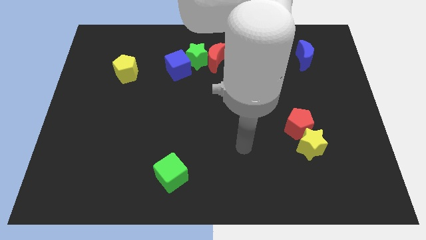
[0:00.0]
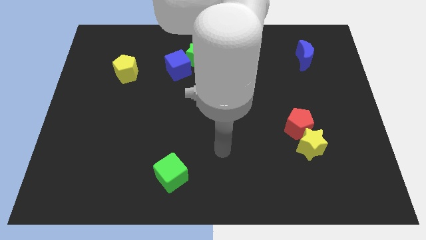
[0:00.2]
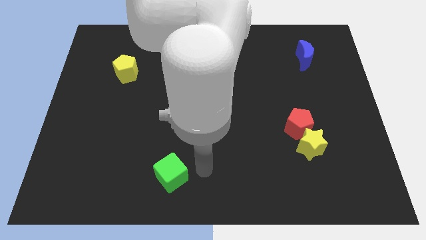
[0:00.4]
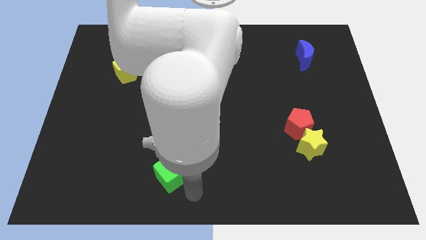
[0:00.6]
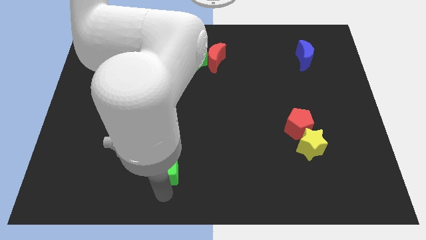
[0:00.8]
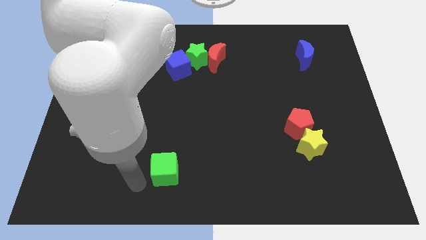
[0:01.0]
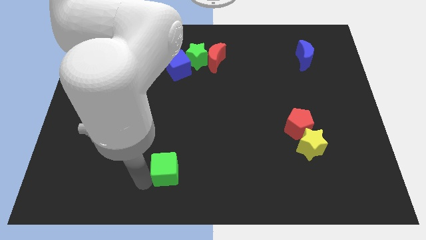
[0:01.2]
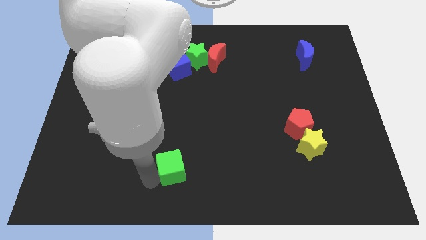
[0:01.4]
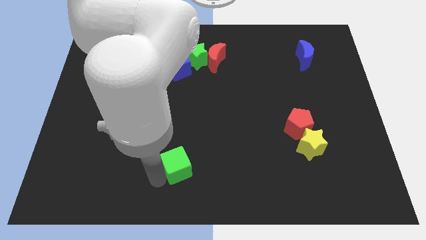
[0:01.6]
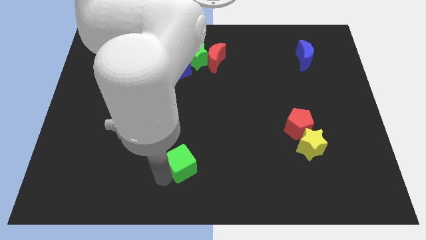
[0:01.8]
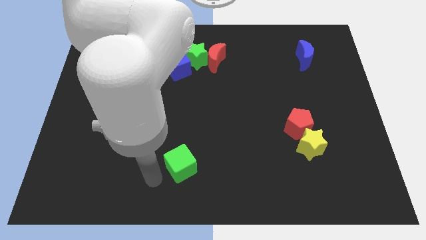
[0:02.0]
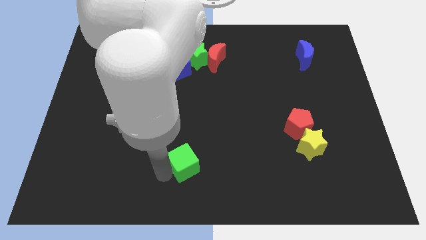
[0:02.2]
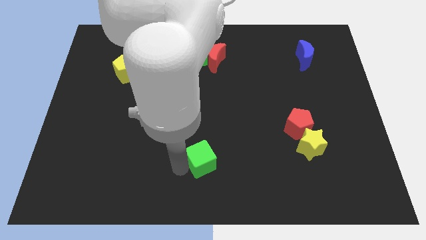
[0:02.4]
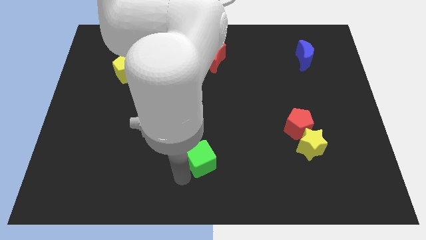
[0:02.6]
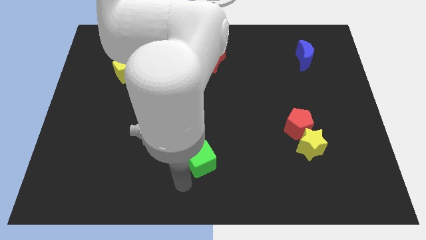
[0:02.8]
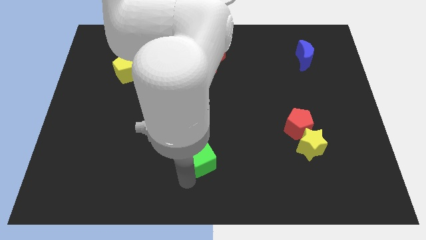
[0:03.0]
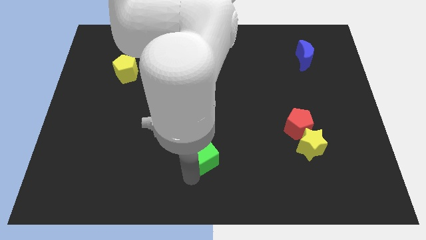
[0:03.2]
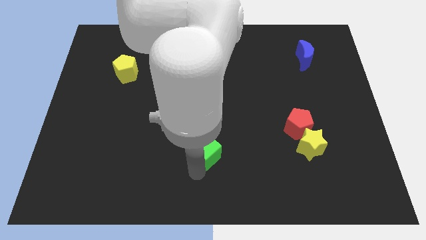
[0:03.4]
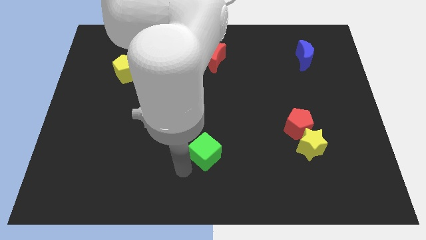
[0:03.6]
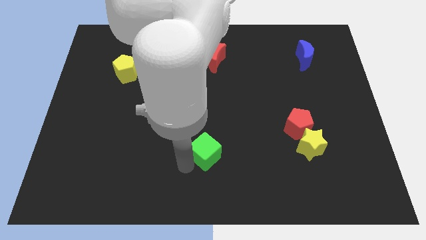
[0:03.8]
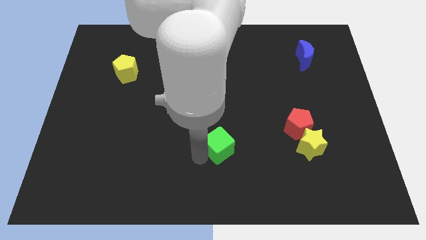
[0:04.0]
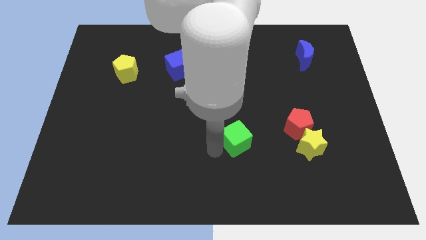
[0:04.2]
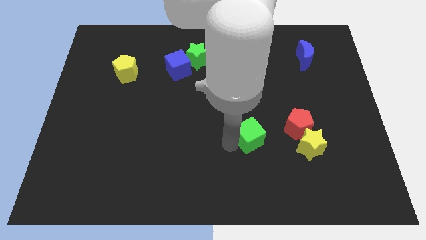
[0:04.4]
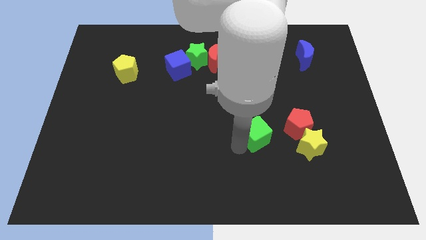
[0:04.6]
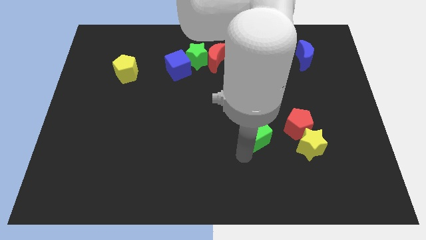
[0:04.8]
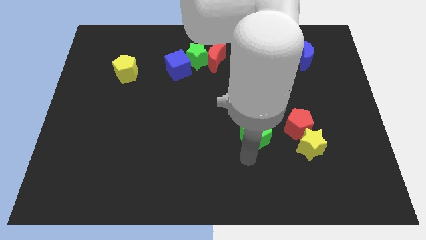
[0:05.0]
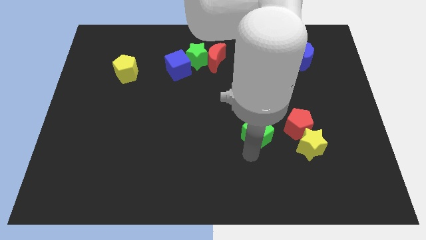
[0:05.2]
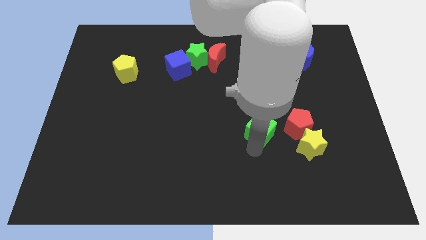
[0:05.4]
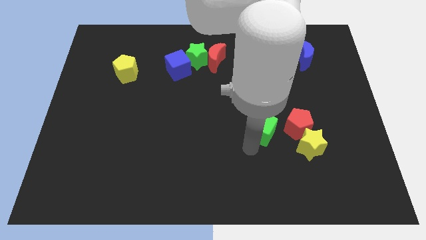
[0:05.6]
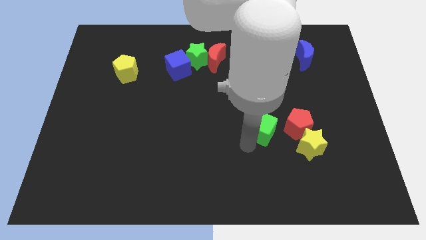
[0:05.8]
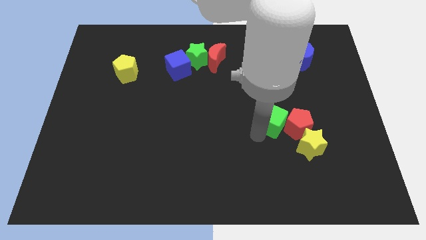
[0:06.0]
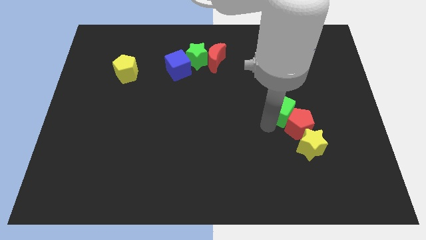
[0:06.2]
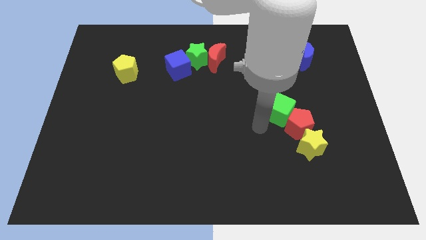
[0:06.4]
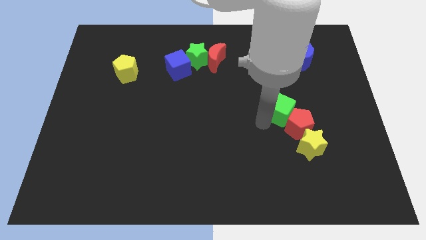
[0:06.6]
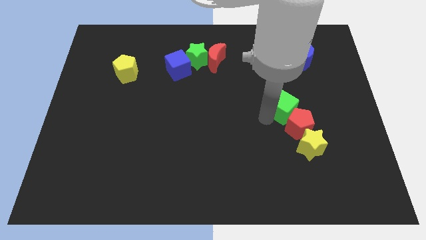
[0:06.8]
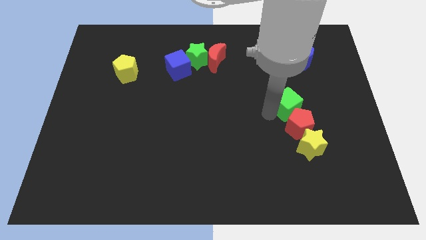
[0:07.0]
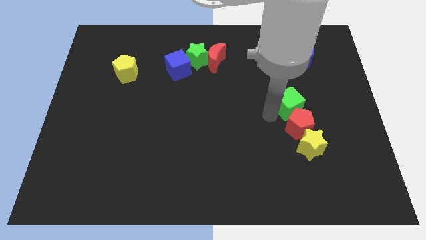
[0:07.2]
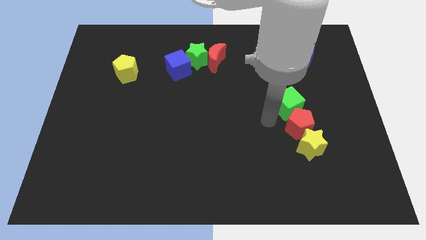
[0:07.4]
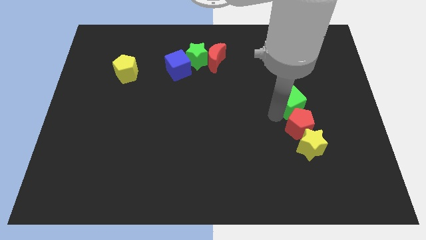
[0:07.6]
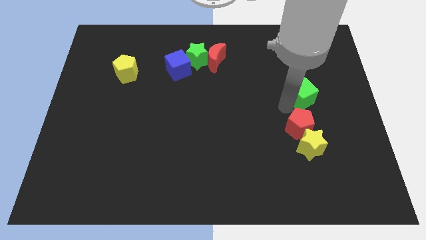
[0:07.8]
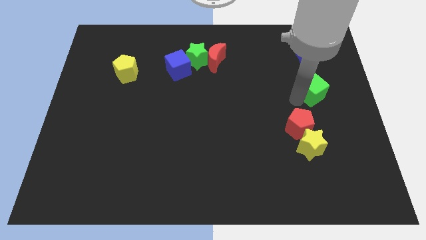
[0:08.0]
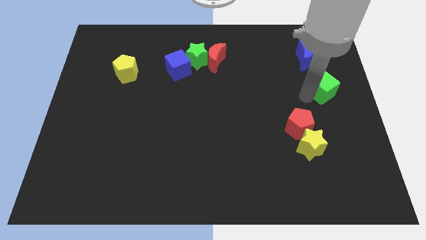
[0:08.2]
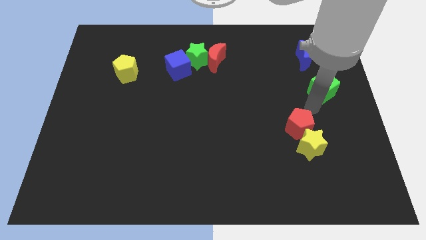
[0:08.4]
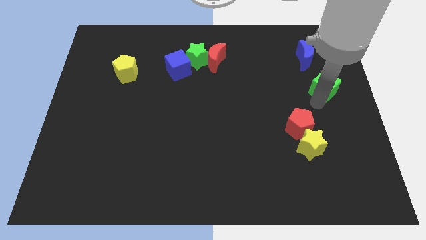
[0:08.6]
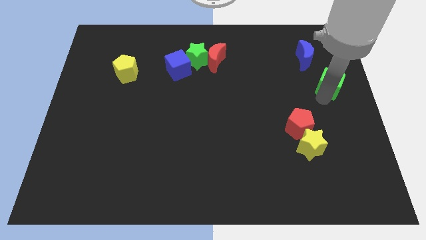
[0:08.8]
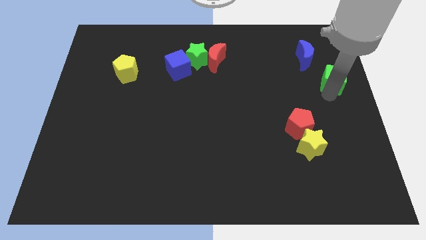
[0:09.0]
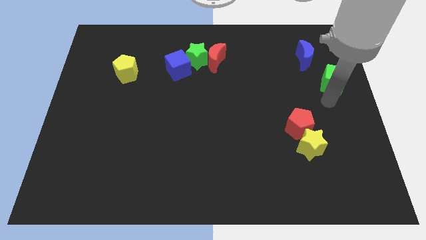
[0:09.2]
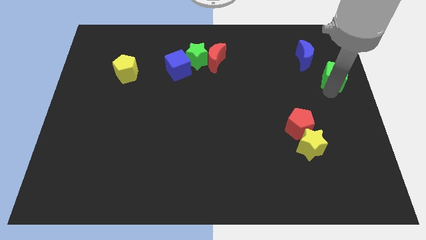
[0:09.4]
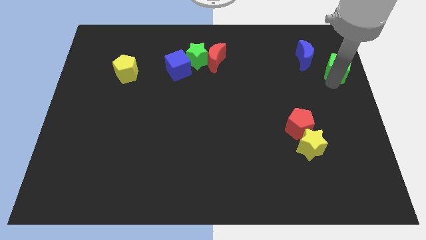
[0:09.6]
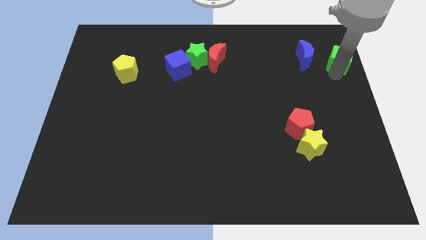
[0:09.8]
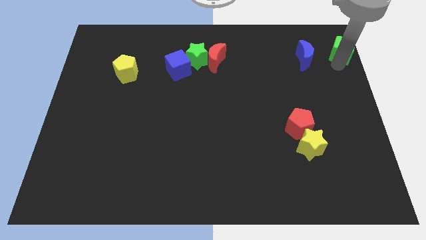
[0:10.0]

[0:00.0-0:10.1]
move the green cube to the top right corner
